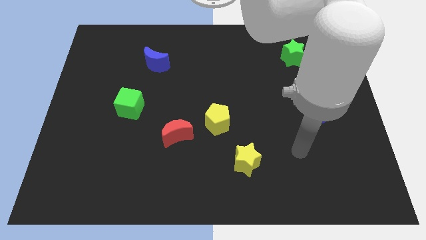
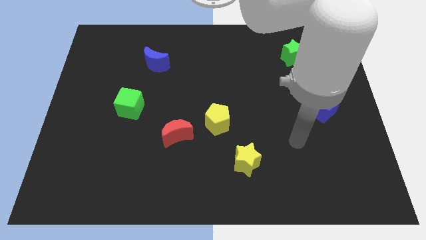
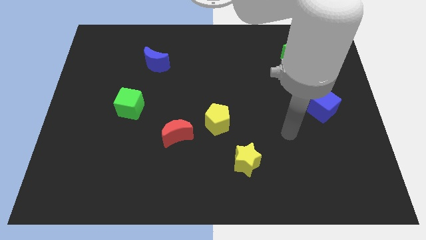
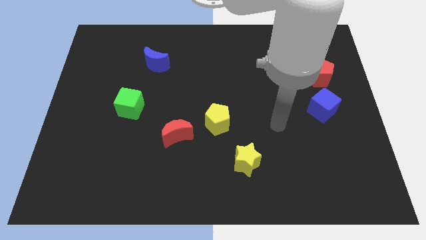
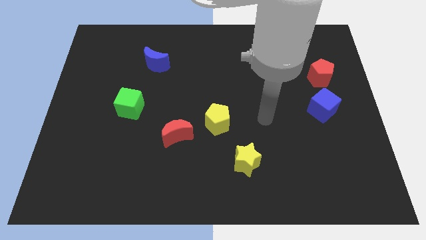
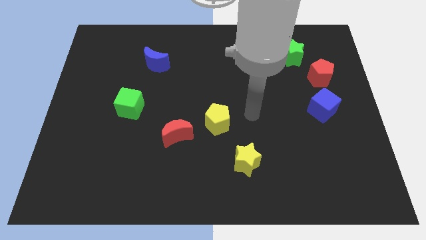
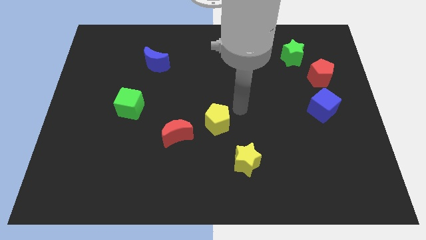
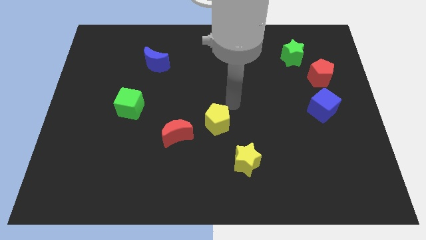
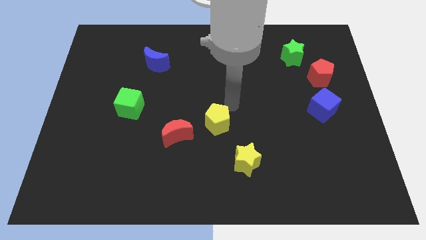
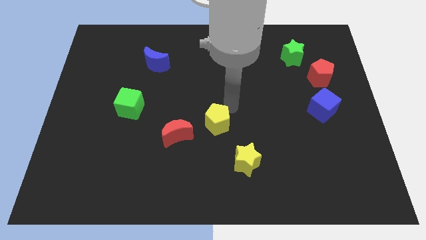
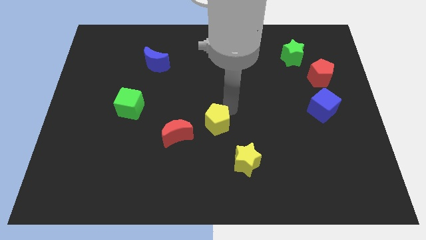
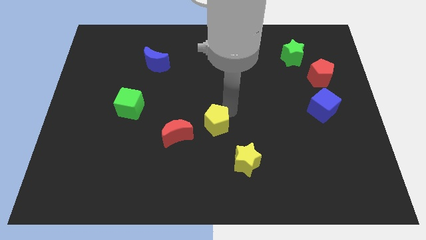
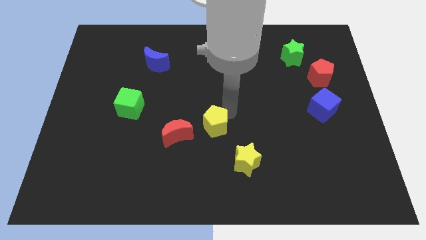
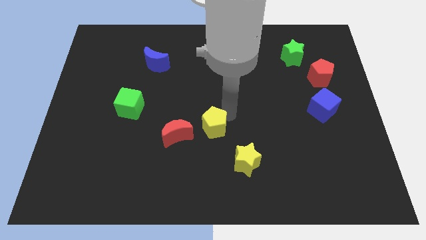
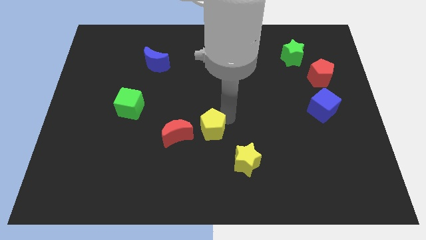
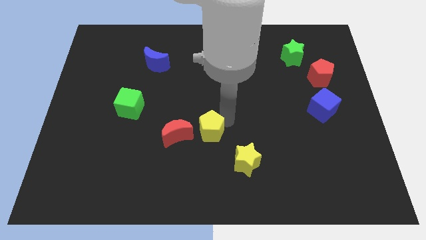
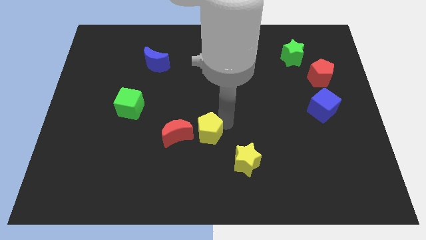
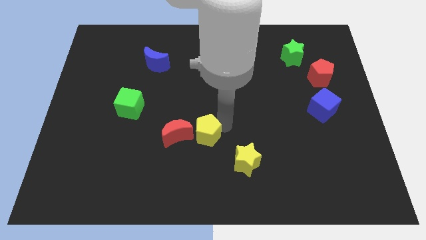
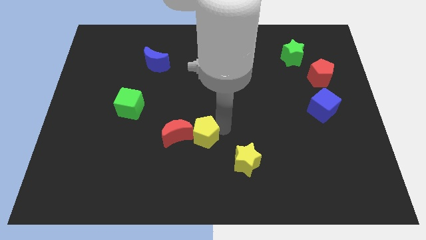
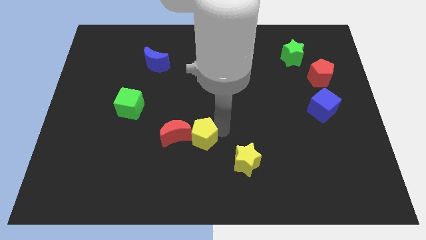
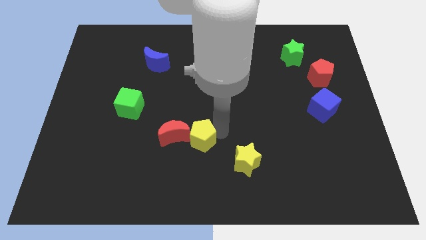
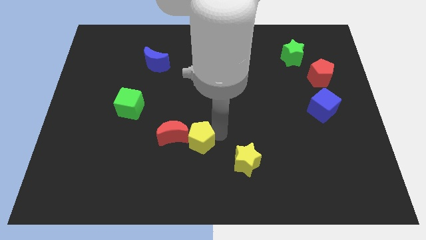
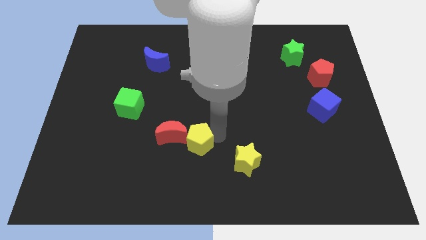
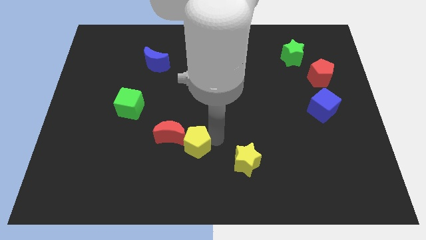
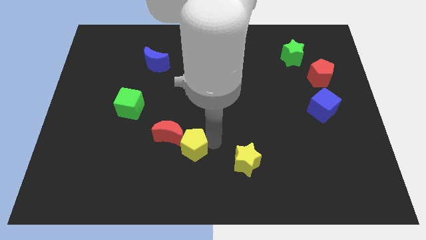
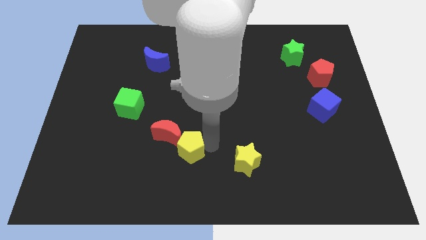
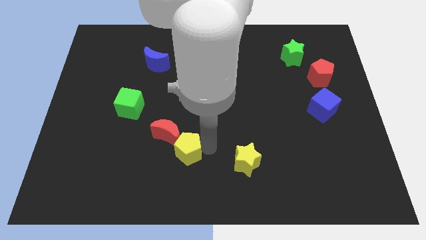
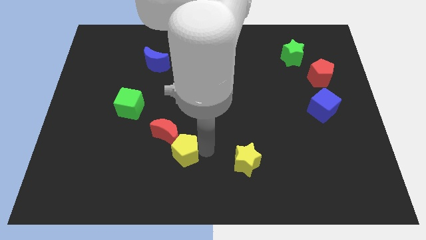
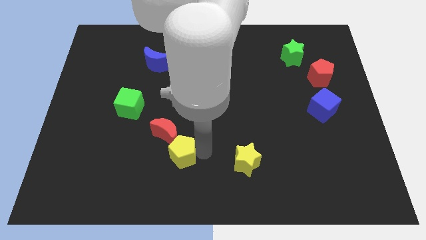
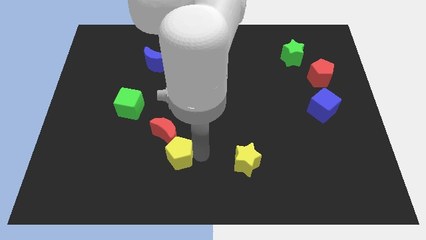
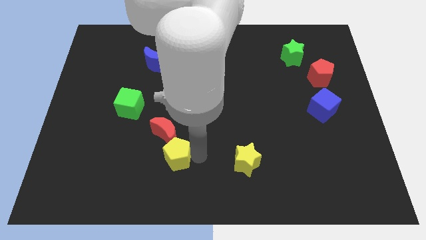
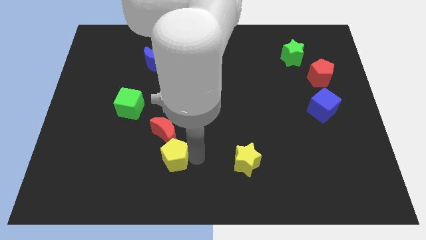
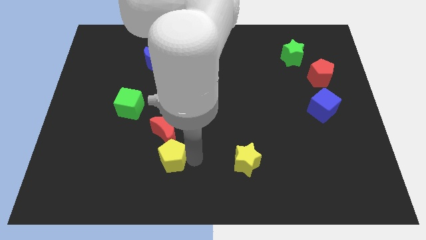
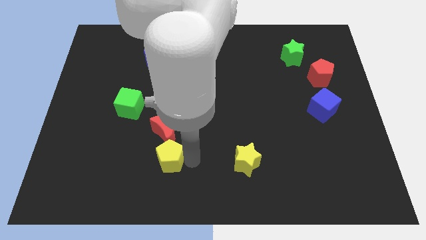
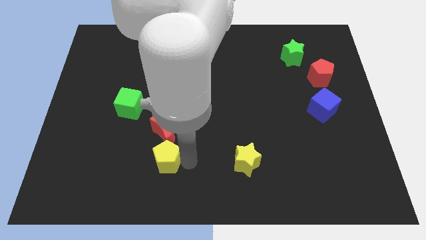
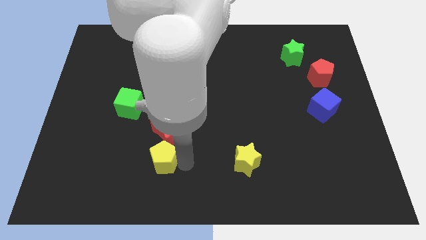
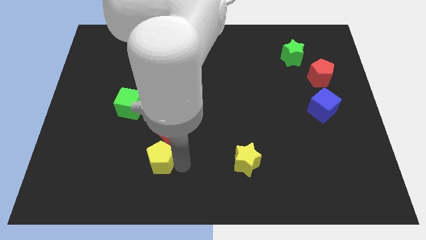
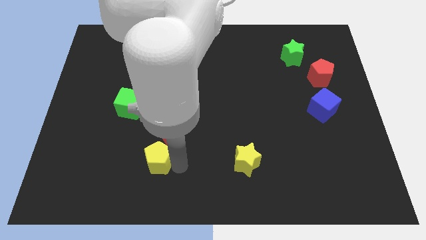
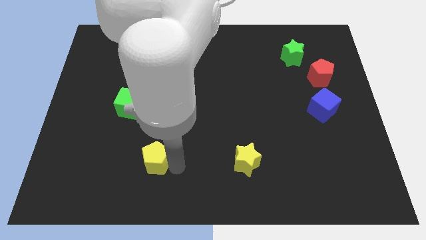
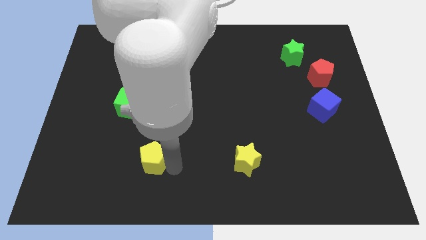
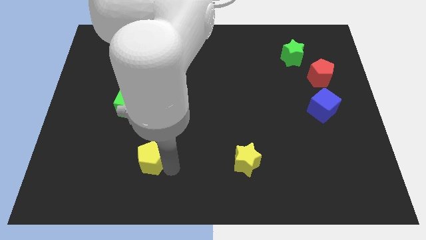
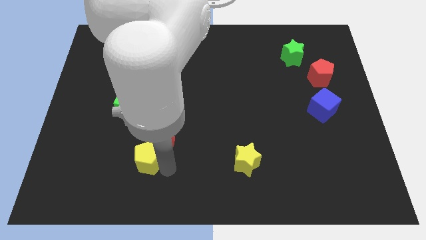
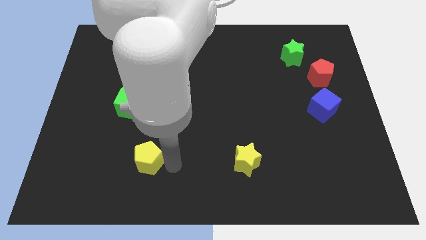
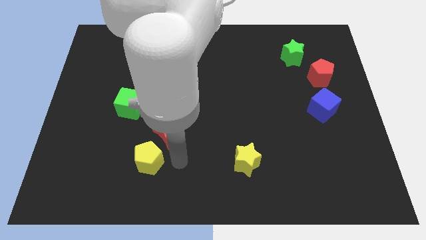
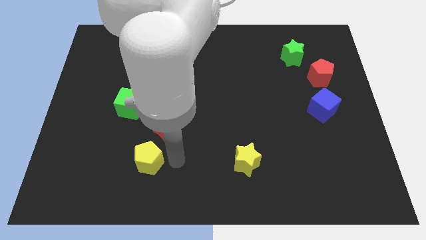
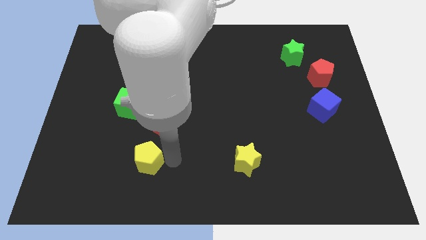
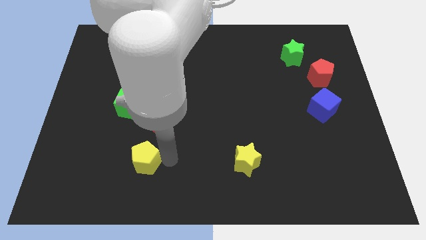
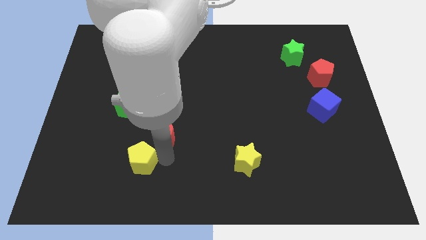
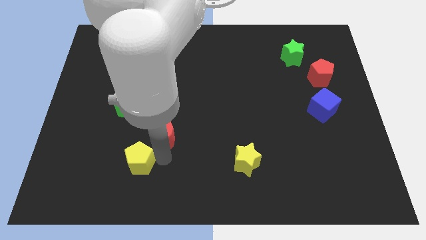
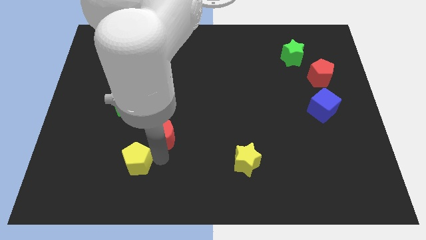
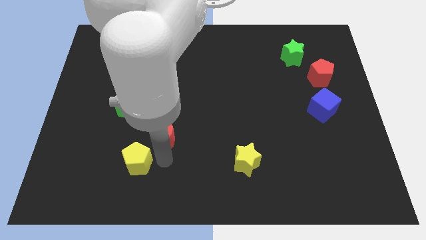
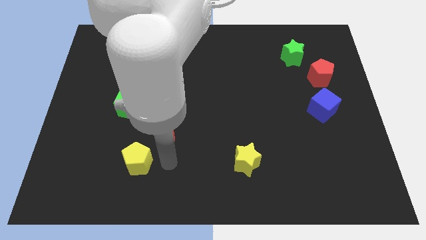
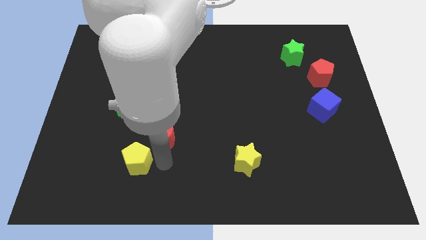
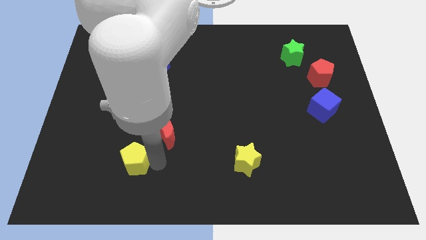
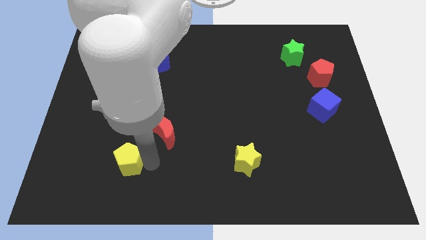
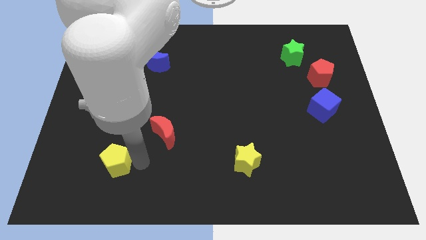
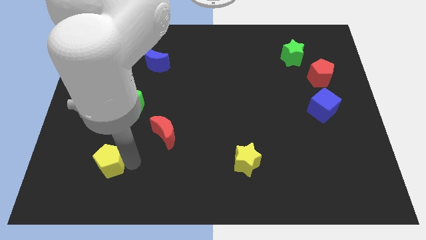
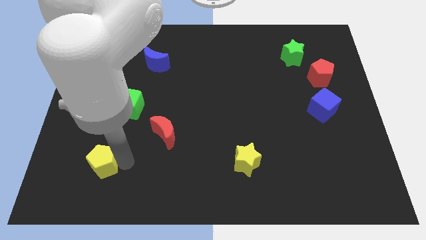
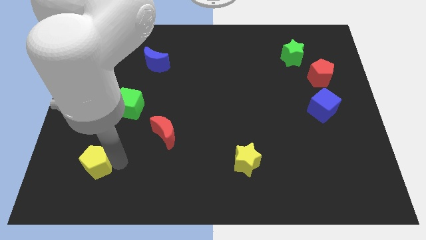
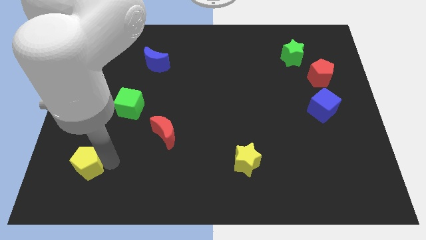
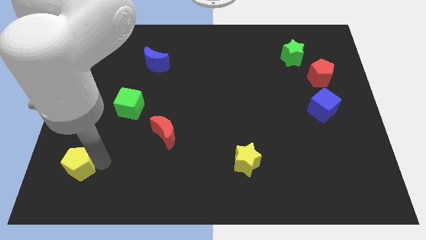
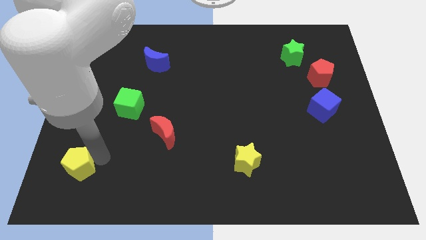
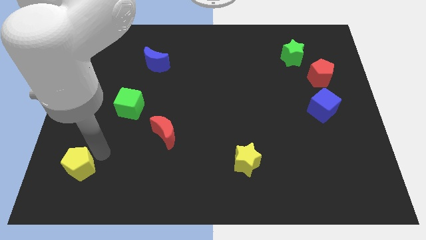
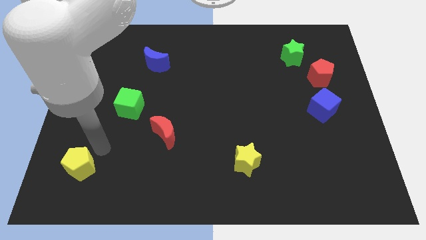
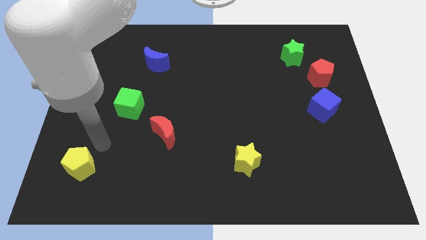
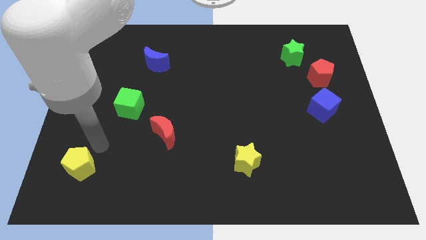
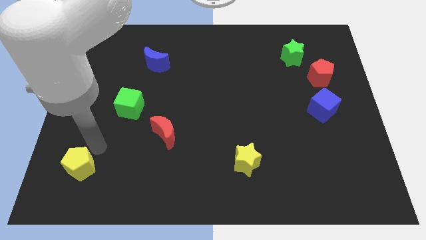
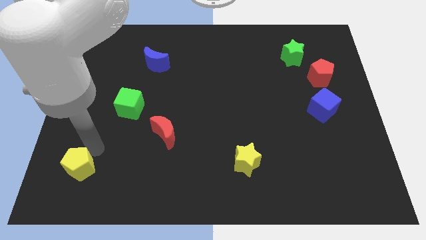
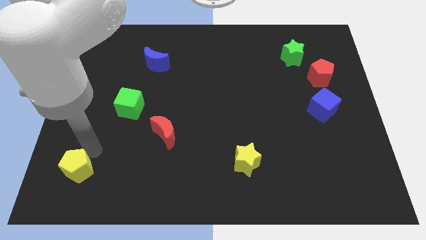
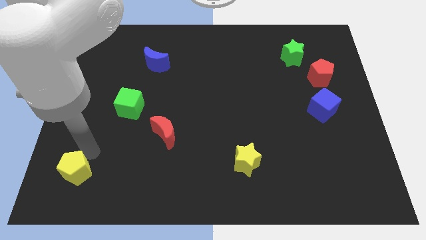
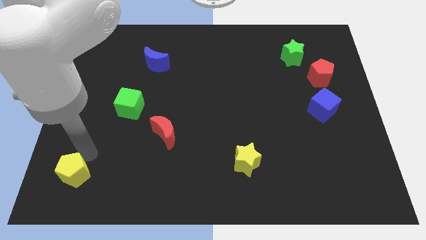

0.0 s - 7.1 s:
push the yellow pentagon to the bottom left corner
